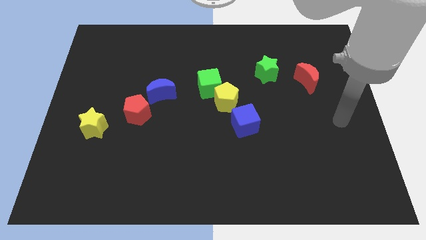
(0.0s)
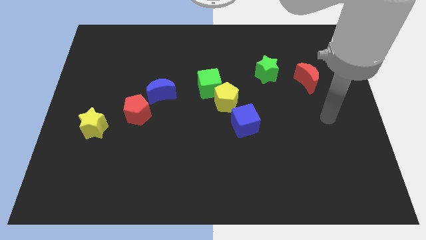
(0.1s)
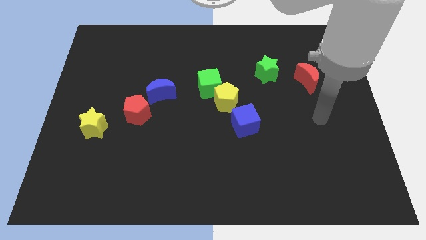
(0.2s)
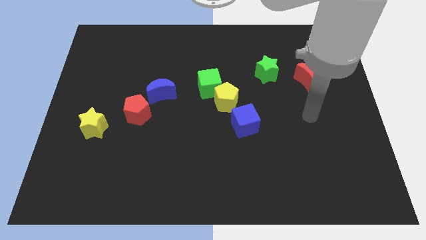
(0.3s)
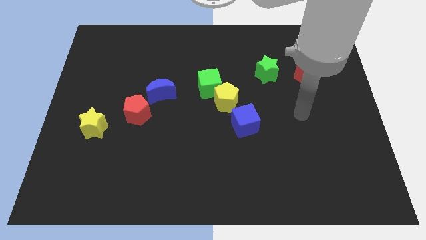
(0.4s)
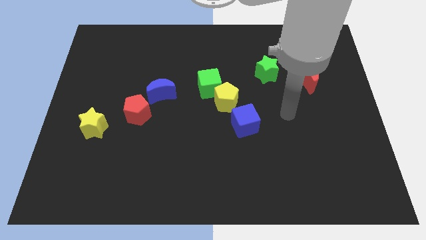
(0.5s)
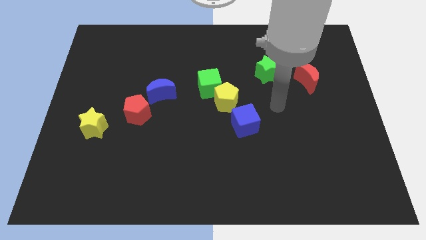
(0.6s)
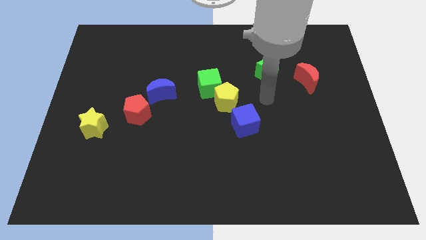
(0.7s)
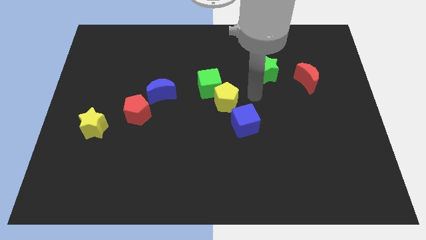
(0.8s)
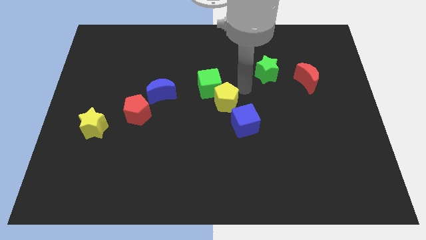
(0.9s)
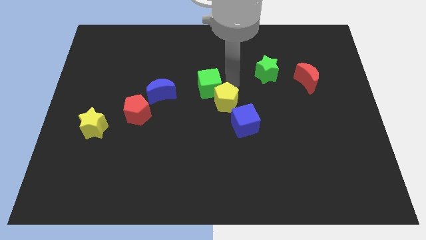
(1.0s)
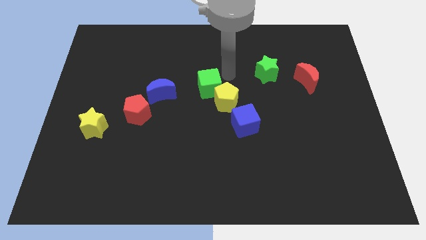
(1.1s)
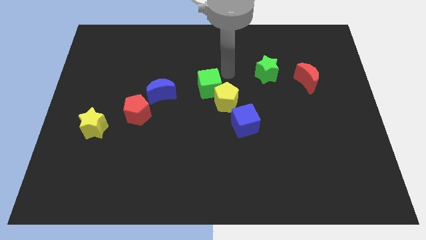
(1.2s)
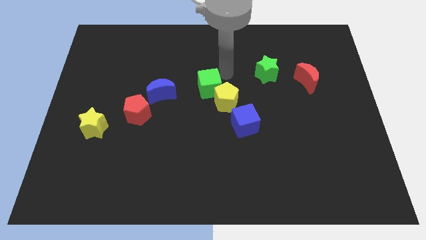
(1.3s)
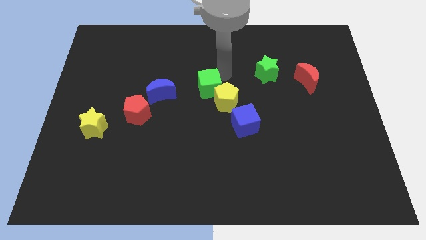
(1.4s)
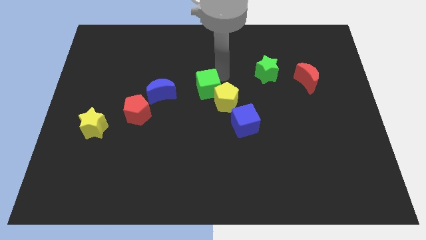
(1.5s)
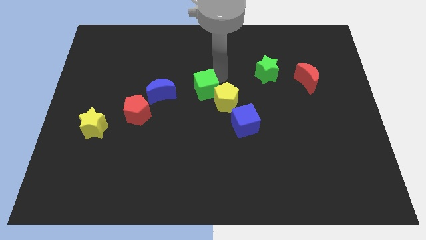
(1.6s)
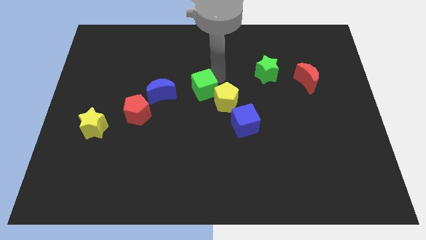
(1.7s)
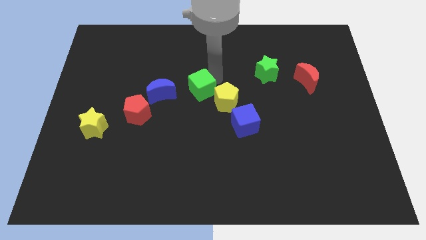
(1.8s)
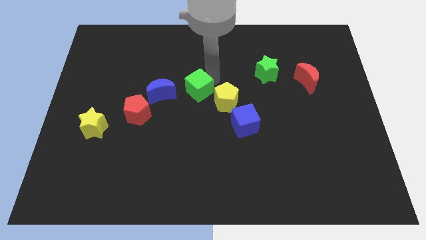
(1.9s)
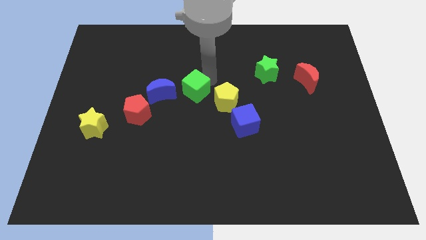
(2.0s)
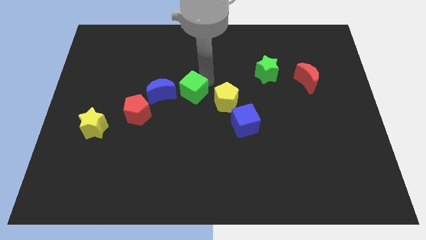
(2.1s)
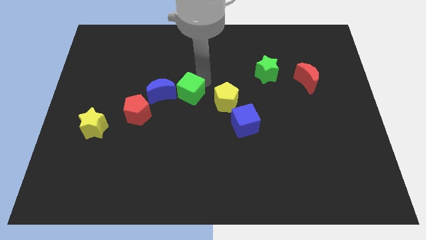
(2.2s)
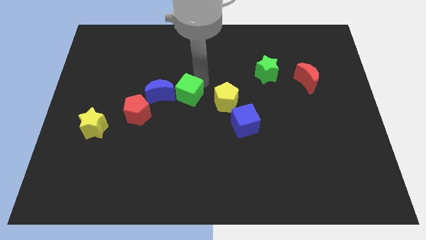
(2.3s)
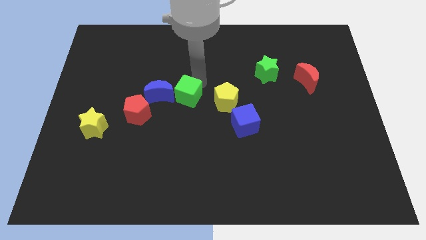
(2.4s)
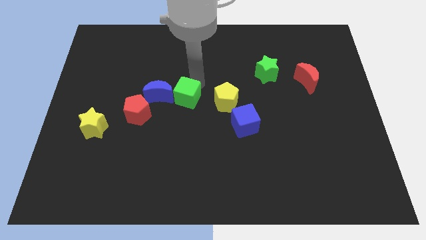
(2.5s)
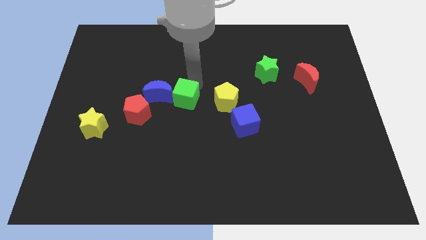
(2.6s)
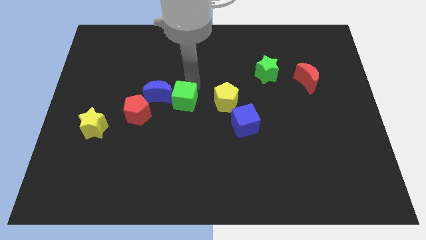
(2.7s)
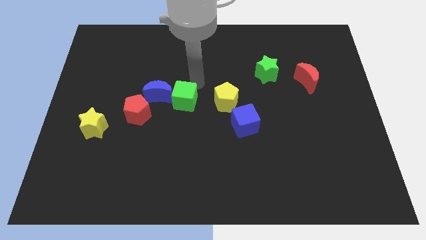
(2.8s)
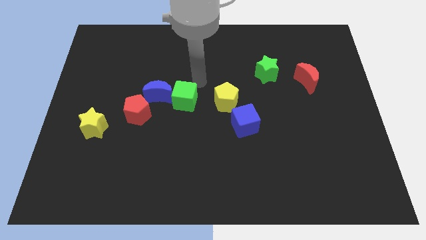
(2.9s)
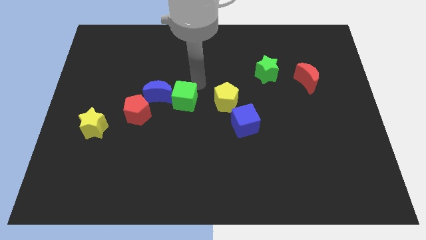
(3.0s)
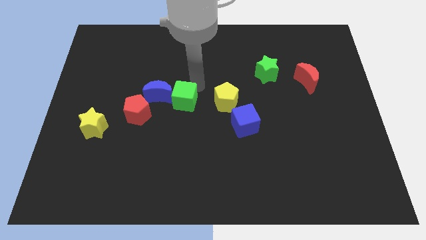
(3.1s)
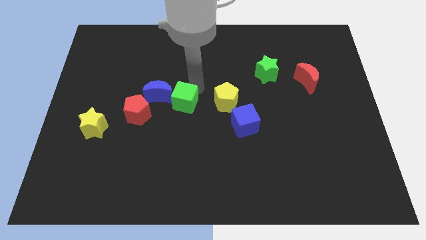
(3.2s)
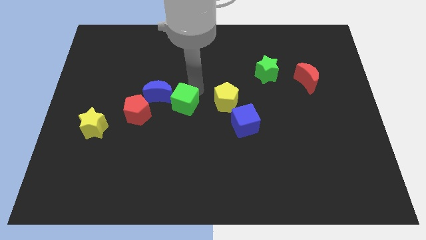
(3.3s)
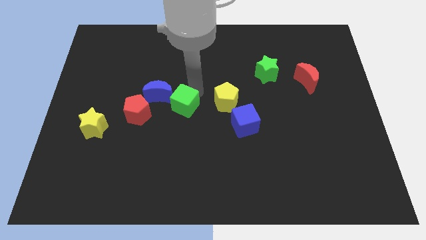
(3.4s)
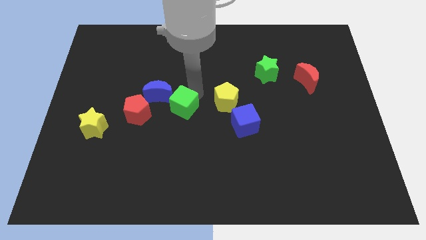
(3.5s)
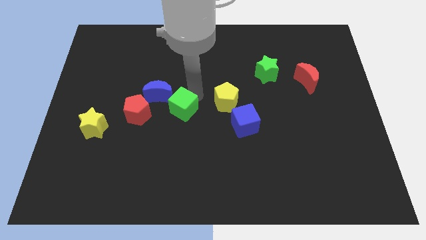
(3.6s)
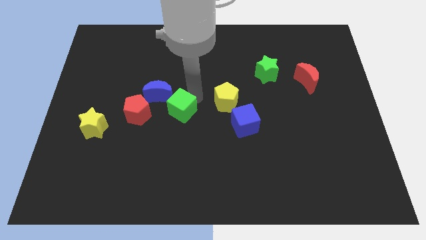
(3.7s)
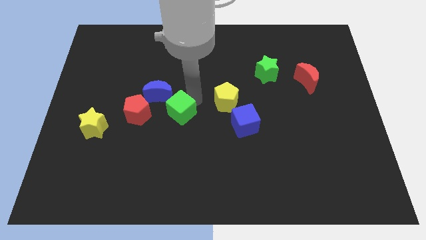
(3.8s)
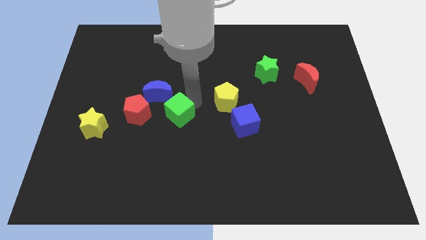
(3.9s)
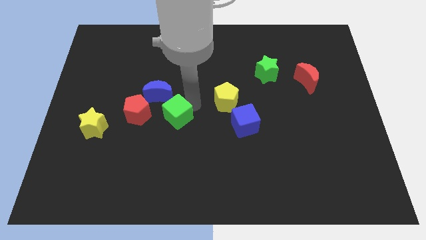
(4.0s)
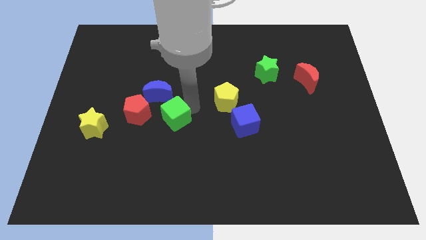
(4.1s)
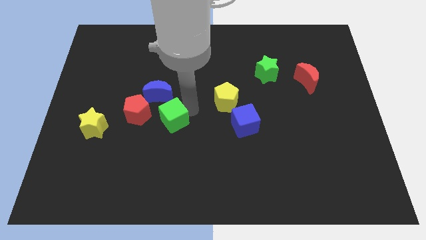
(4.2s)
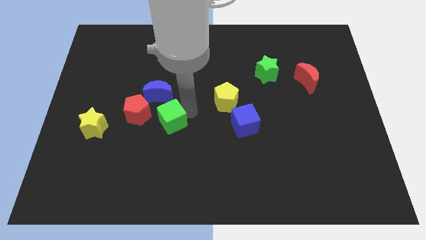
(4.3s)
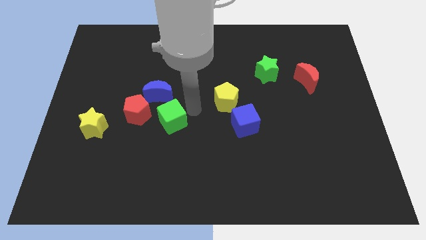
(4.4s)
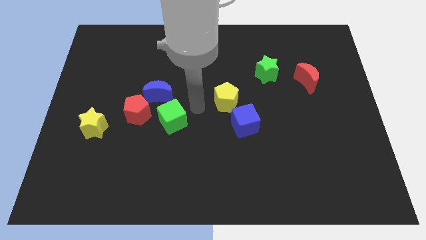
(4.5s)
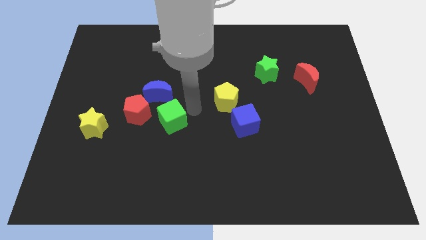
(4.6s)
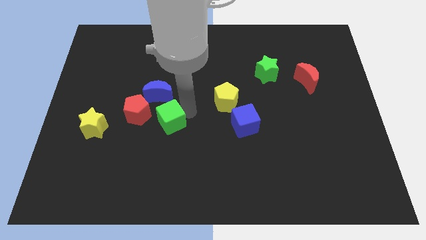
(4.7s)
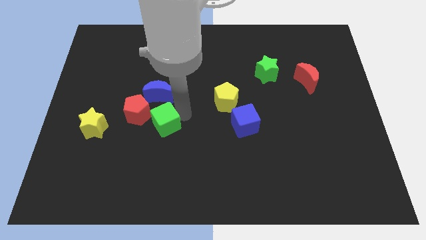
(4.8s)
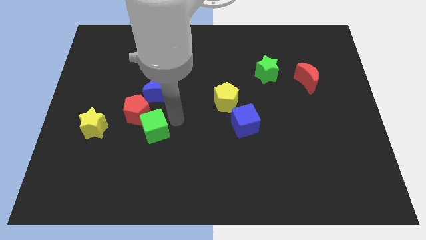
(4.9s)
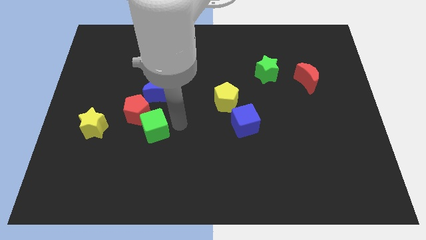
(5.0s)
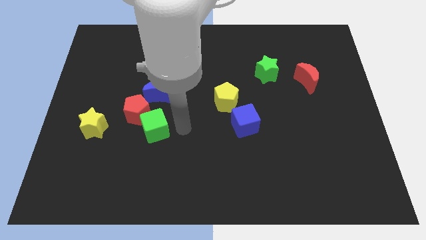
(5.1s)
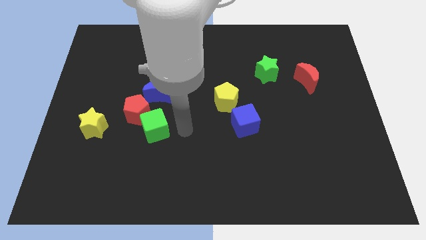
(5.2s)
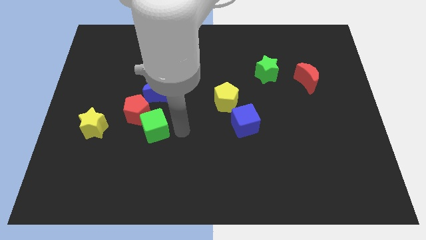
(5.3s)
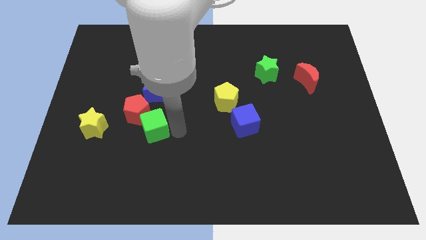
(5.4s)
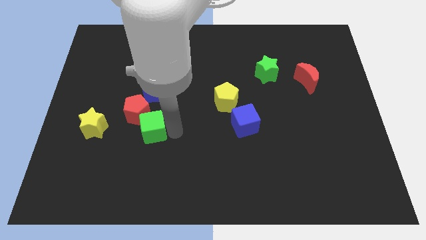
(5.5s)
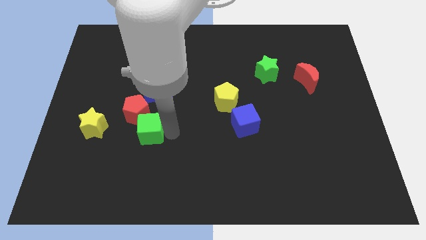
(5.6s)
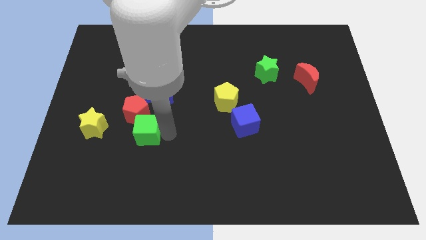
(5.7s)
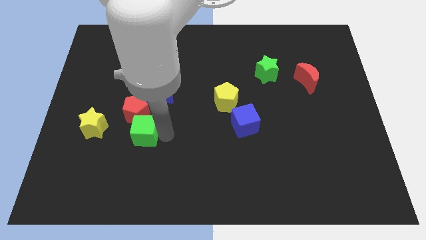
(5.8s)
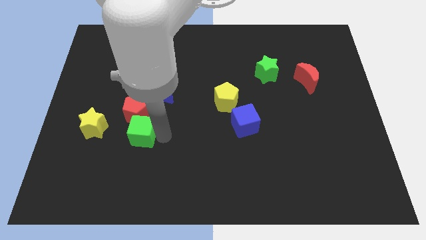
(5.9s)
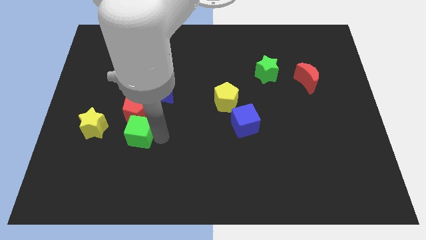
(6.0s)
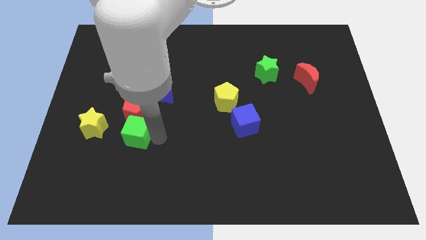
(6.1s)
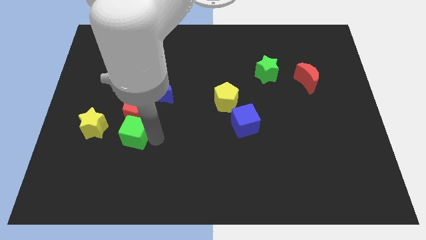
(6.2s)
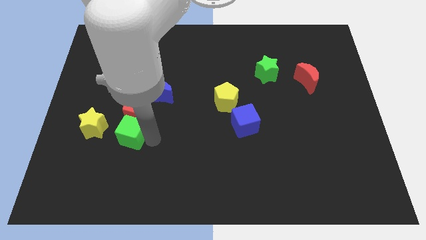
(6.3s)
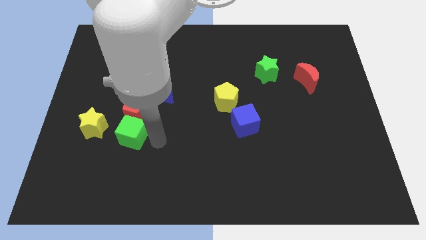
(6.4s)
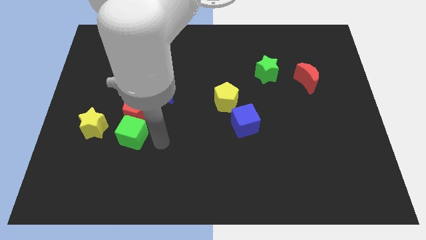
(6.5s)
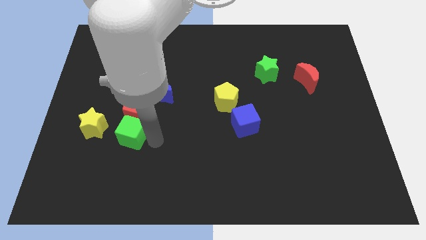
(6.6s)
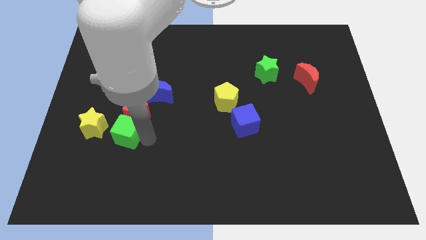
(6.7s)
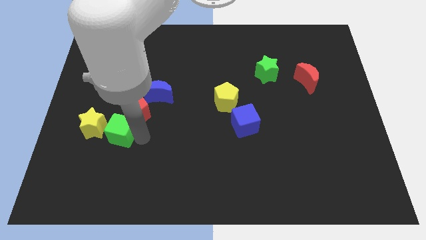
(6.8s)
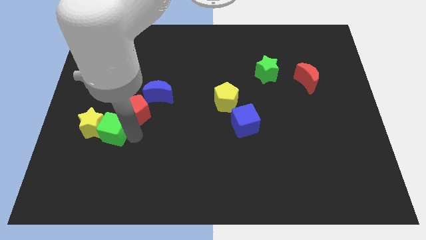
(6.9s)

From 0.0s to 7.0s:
slide the green cube next to the yellow star

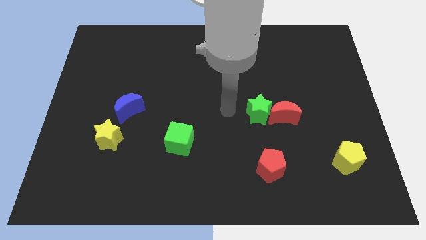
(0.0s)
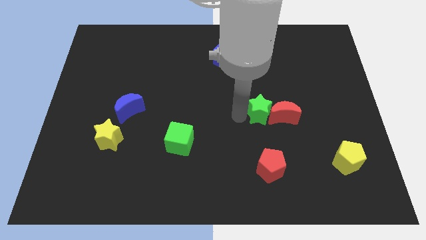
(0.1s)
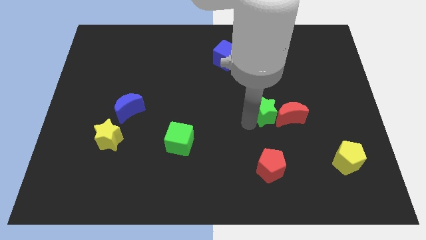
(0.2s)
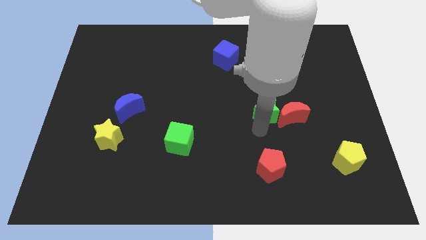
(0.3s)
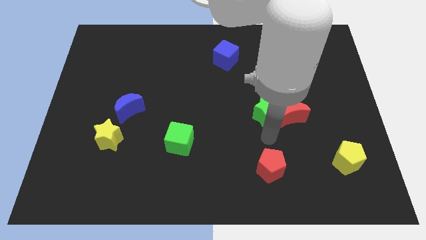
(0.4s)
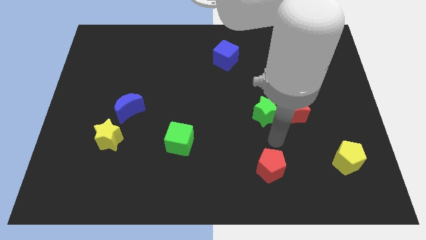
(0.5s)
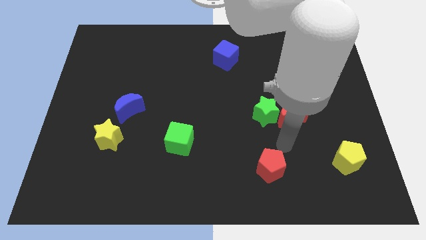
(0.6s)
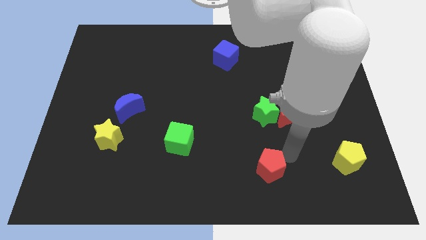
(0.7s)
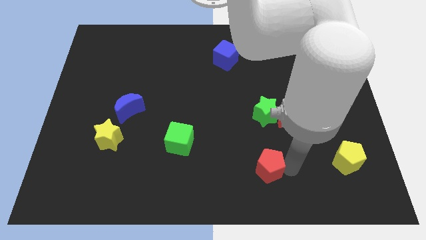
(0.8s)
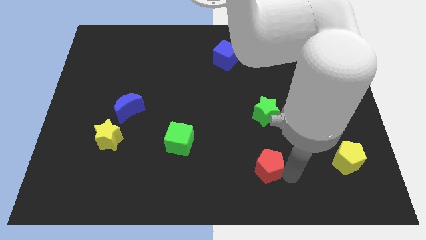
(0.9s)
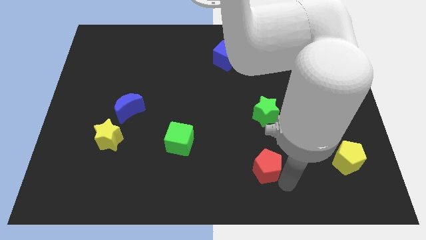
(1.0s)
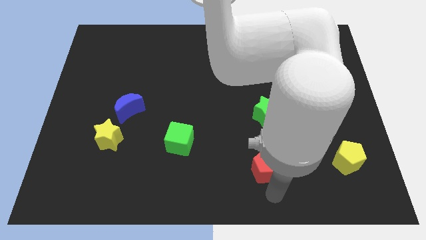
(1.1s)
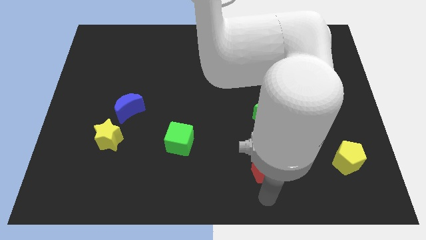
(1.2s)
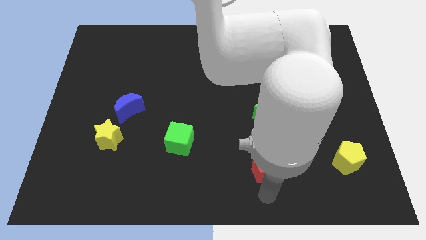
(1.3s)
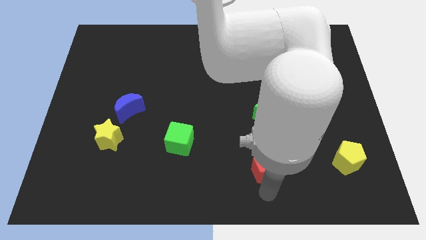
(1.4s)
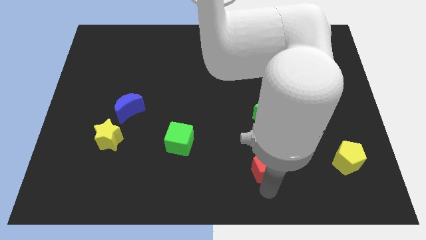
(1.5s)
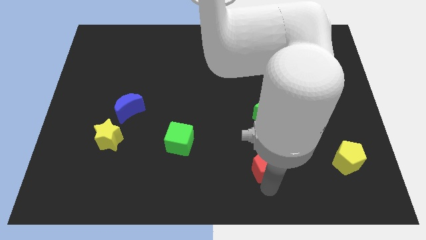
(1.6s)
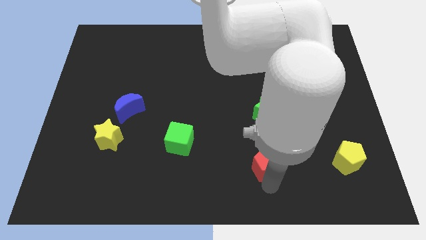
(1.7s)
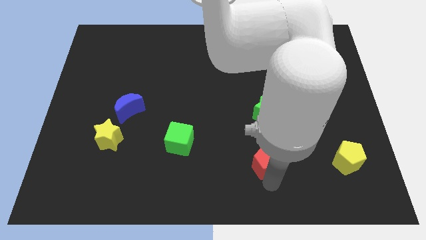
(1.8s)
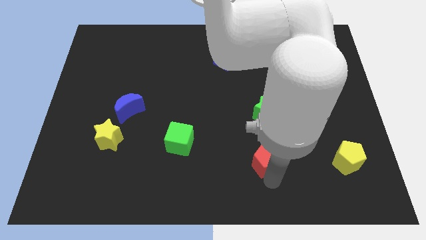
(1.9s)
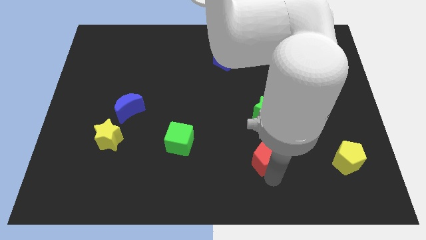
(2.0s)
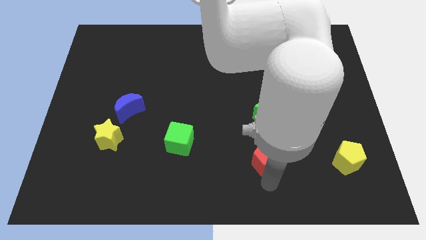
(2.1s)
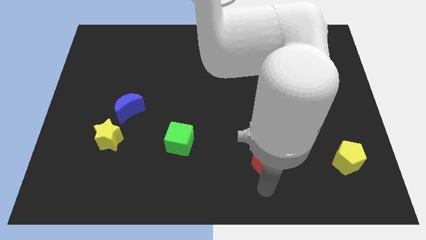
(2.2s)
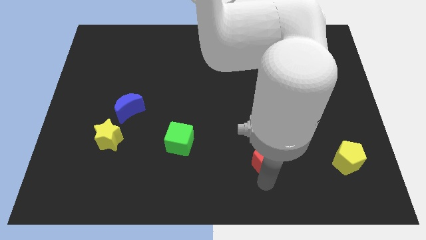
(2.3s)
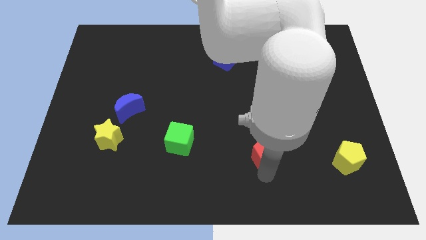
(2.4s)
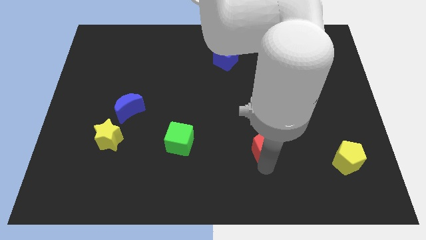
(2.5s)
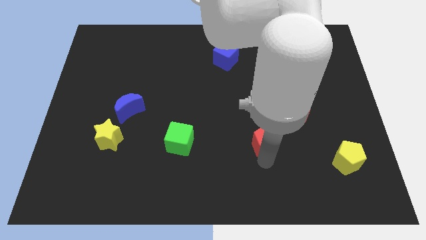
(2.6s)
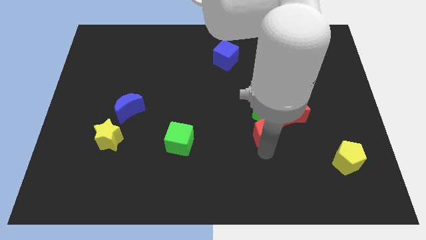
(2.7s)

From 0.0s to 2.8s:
put the red pentagon towards the green star
